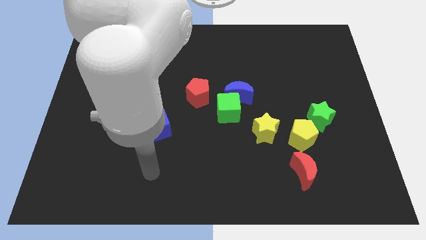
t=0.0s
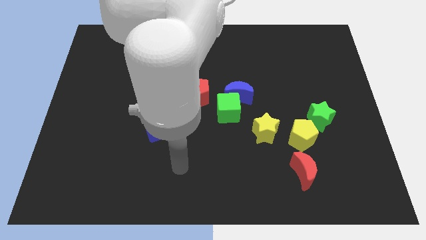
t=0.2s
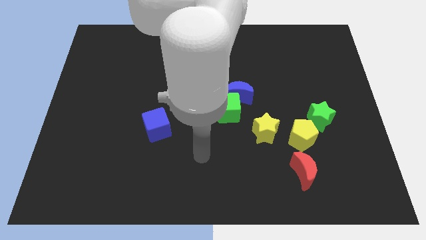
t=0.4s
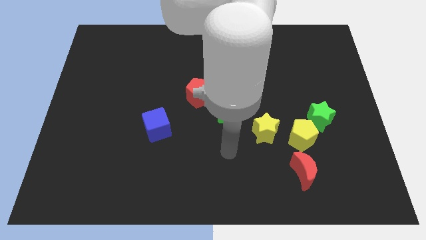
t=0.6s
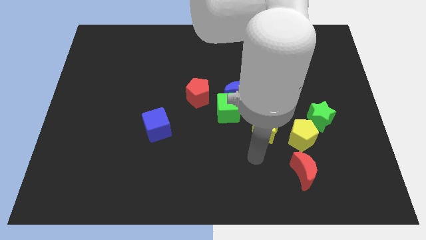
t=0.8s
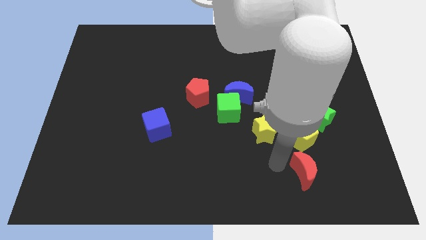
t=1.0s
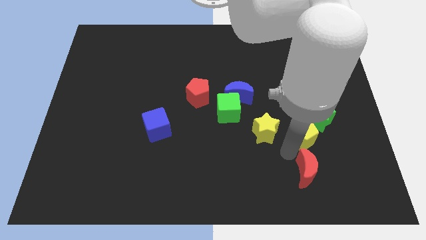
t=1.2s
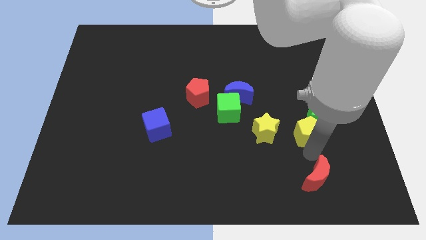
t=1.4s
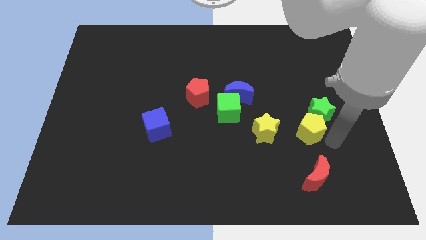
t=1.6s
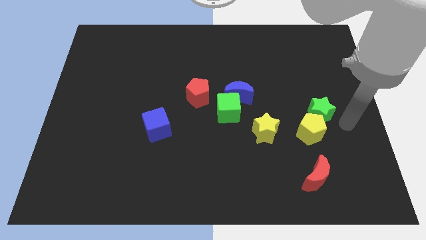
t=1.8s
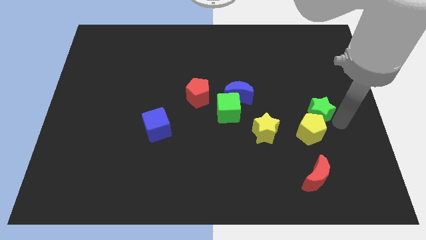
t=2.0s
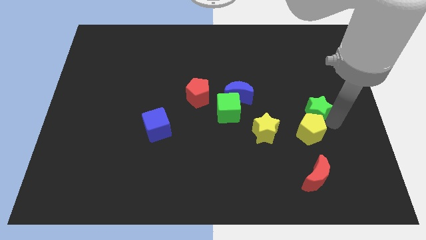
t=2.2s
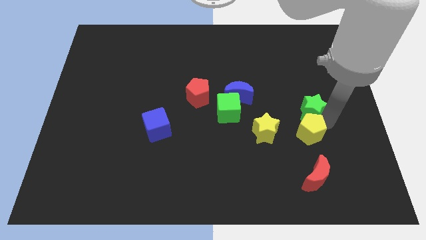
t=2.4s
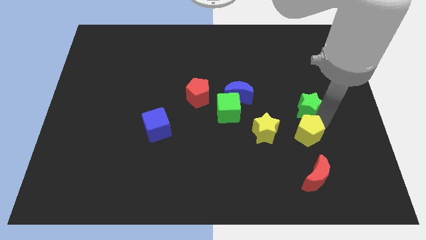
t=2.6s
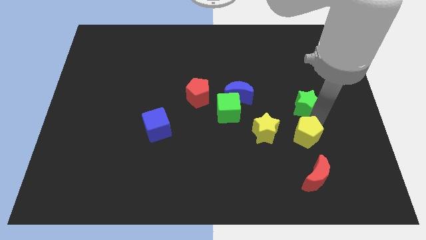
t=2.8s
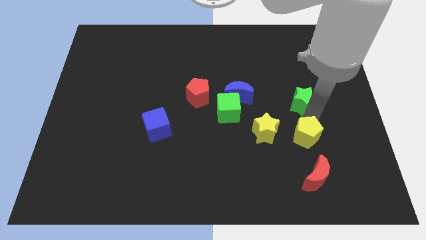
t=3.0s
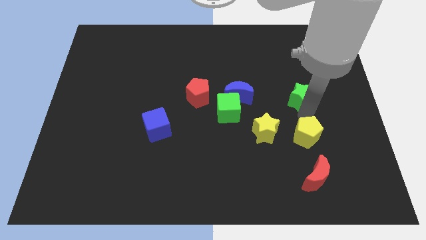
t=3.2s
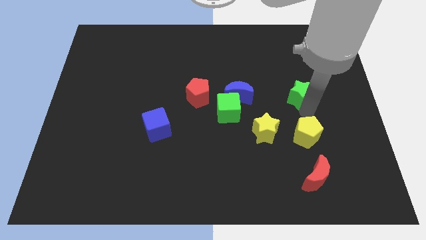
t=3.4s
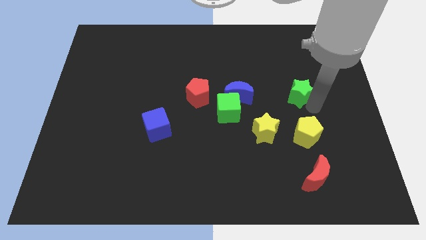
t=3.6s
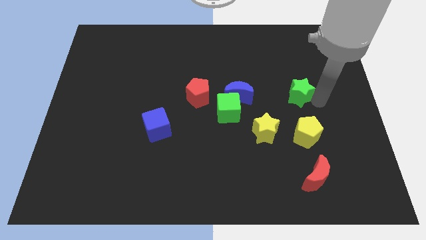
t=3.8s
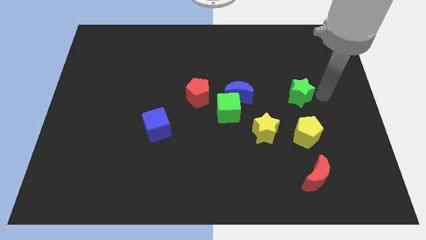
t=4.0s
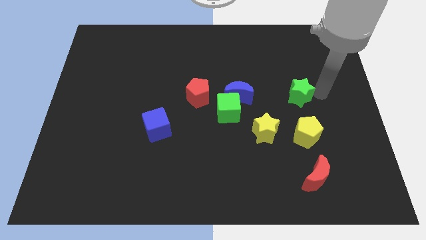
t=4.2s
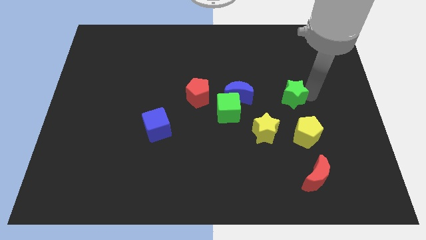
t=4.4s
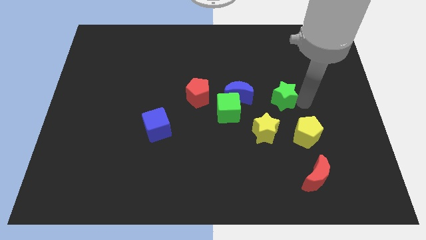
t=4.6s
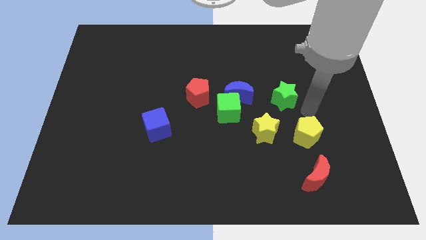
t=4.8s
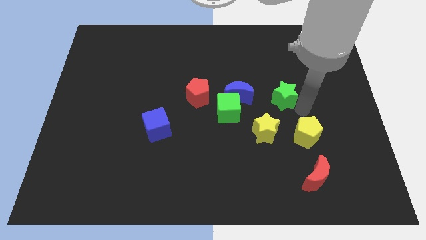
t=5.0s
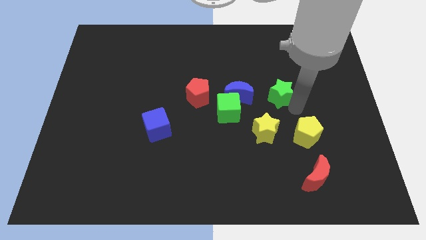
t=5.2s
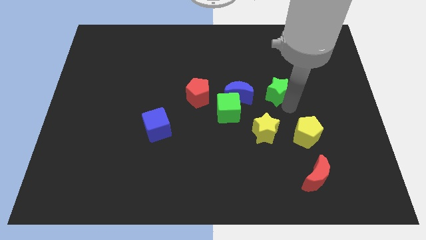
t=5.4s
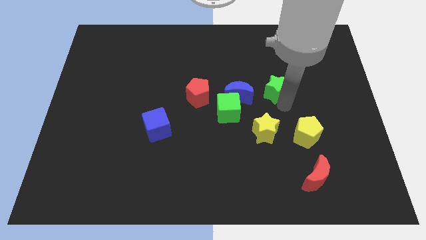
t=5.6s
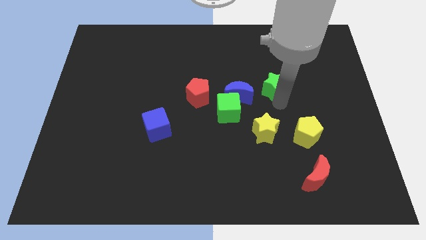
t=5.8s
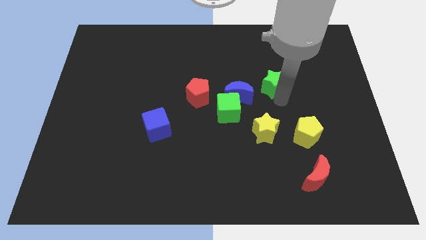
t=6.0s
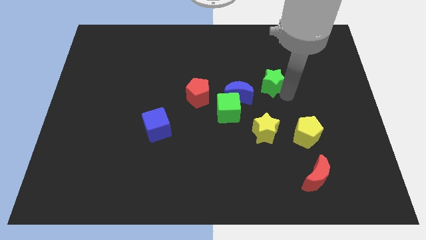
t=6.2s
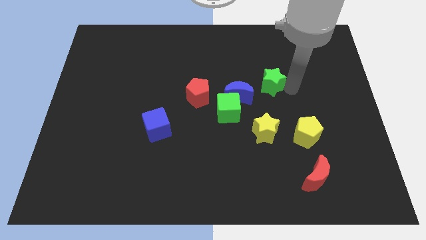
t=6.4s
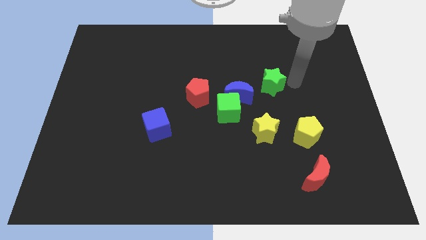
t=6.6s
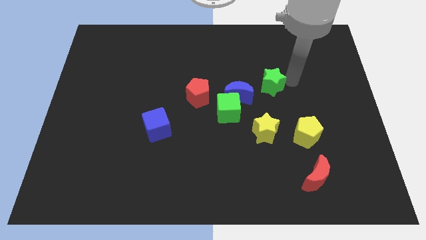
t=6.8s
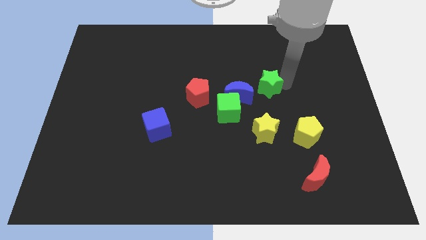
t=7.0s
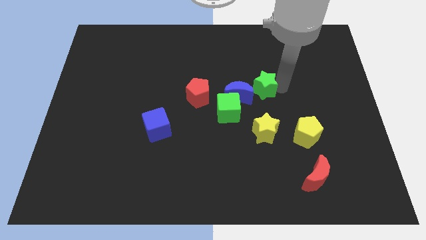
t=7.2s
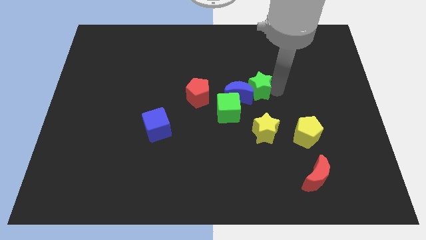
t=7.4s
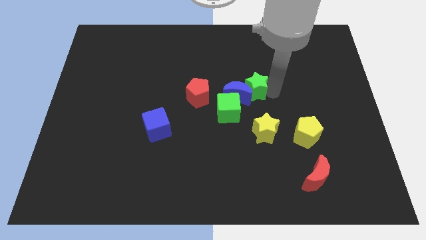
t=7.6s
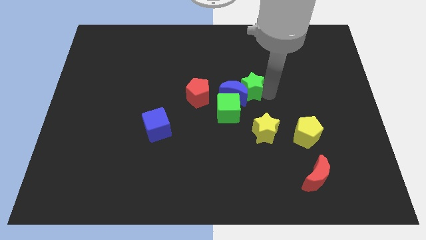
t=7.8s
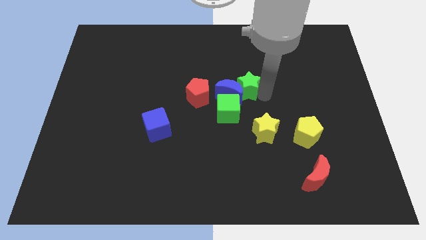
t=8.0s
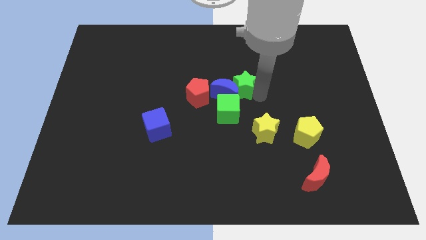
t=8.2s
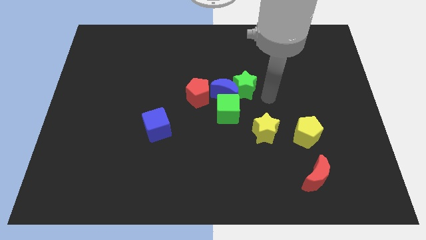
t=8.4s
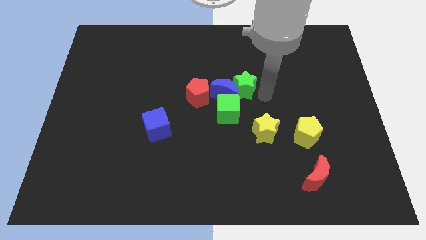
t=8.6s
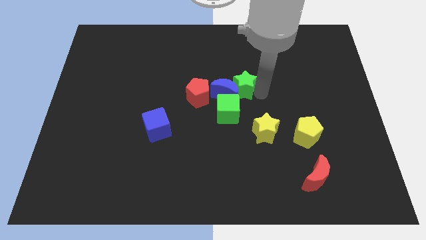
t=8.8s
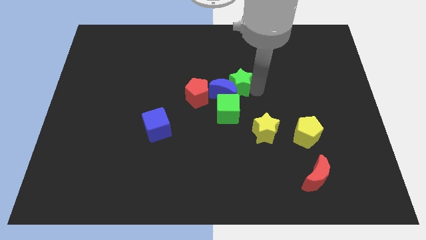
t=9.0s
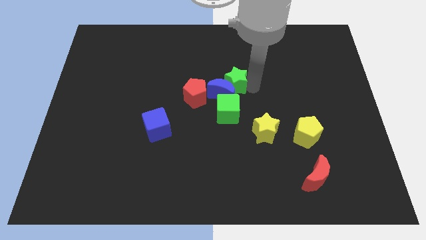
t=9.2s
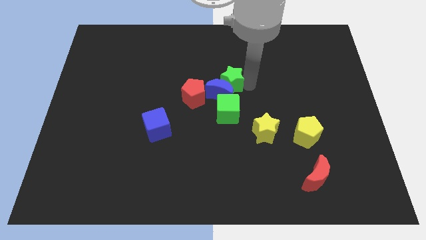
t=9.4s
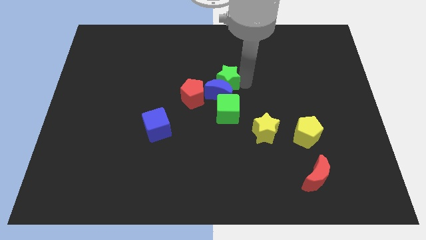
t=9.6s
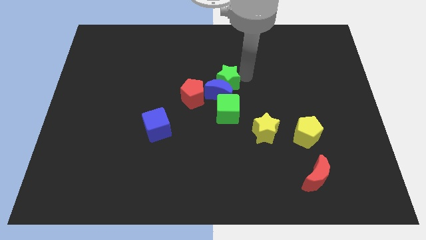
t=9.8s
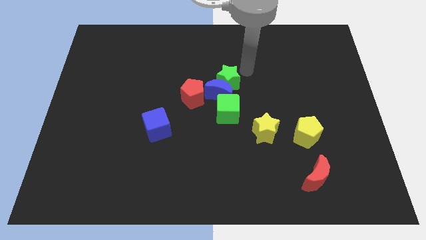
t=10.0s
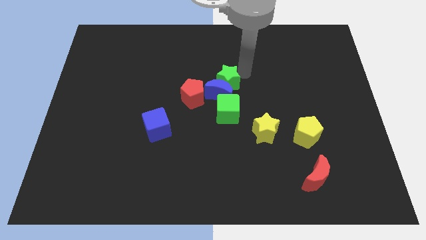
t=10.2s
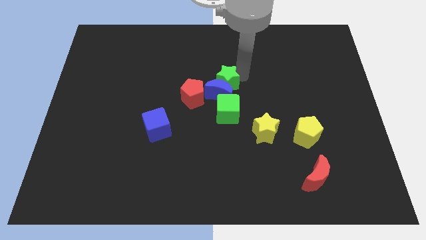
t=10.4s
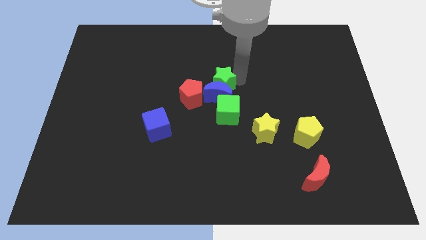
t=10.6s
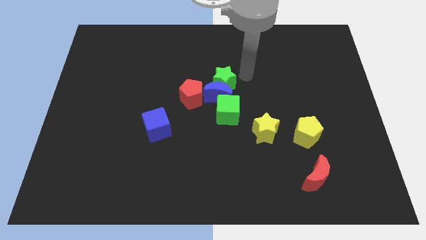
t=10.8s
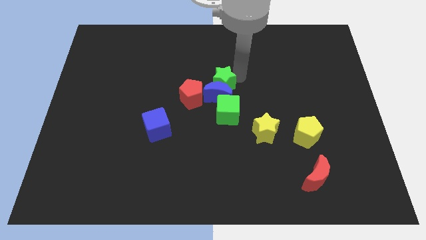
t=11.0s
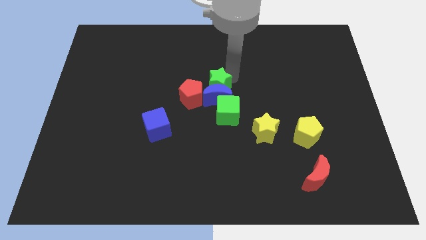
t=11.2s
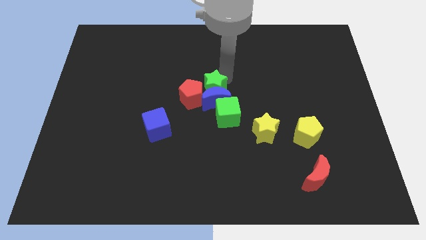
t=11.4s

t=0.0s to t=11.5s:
slide the green star to the red pentagon

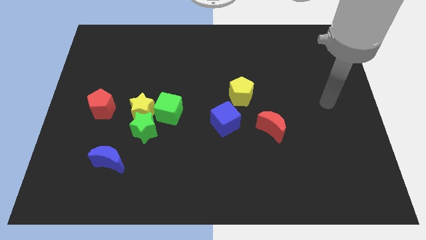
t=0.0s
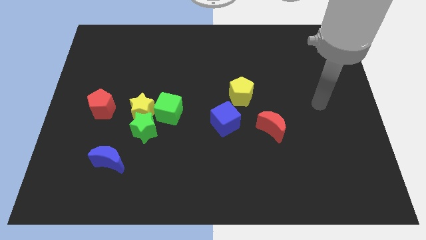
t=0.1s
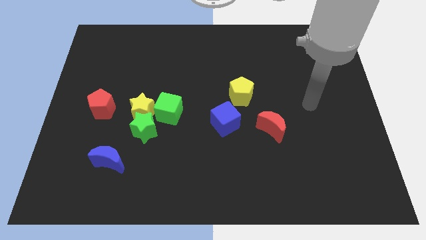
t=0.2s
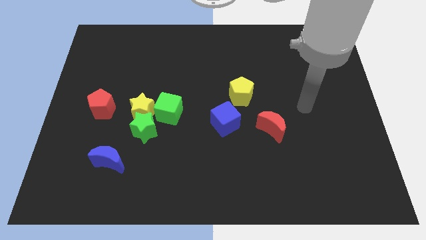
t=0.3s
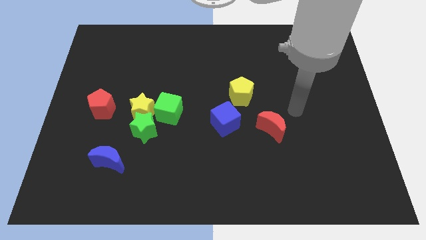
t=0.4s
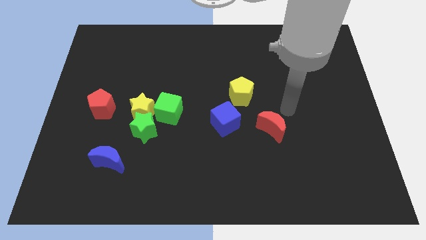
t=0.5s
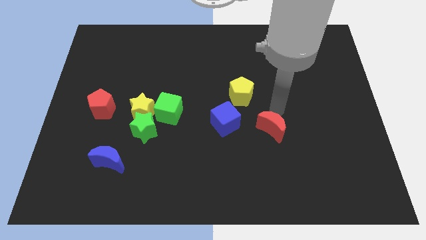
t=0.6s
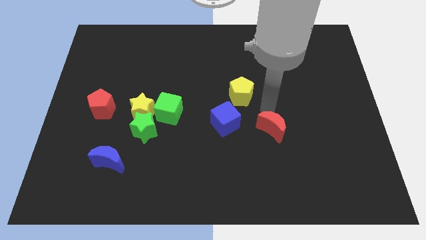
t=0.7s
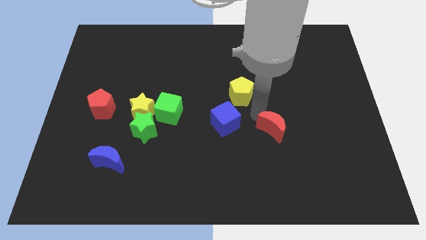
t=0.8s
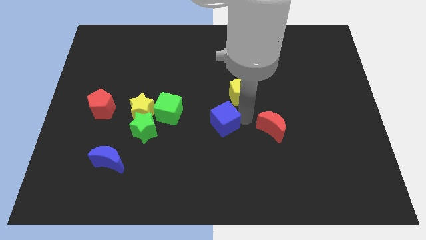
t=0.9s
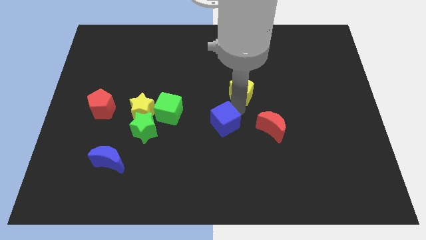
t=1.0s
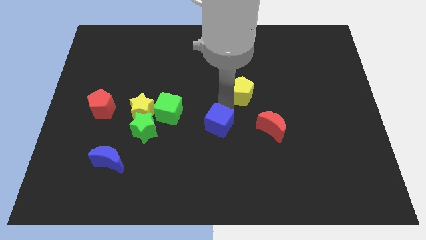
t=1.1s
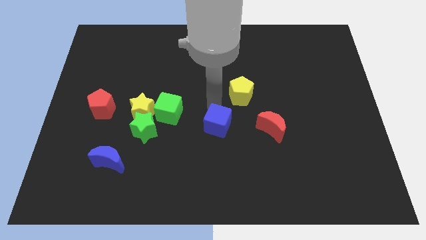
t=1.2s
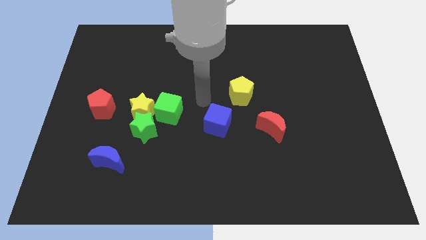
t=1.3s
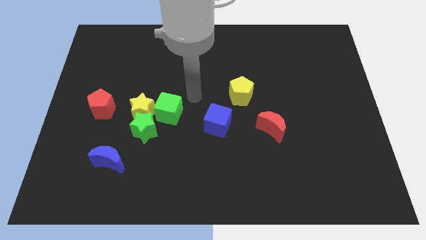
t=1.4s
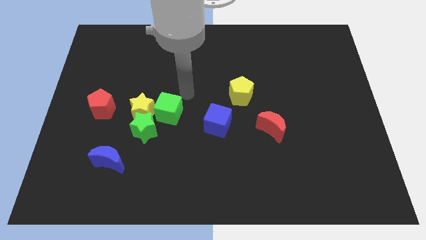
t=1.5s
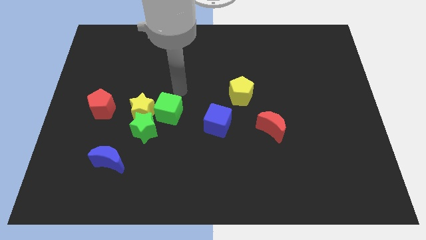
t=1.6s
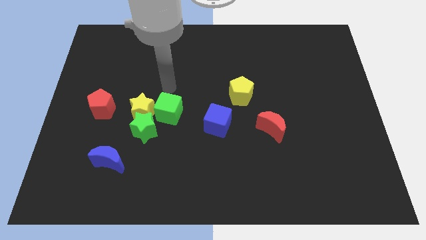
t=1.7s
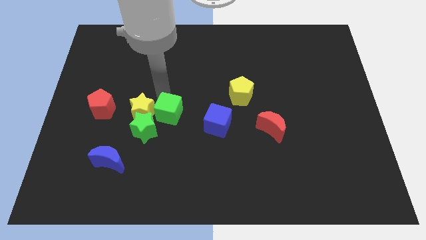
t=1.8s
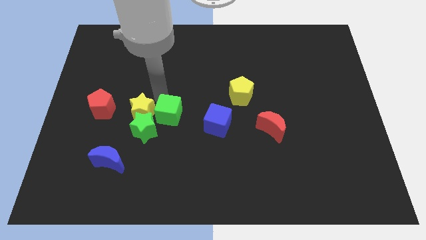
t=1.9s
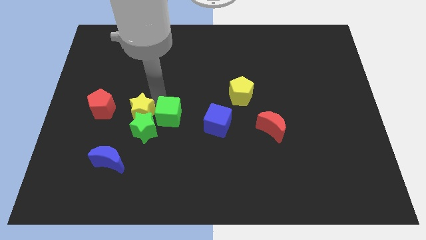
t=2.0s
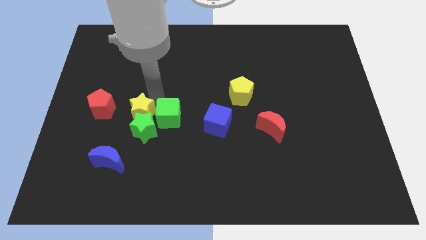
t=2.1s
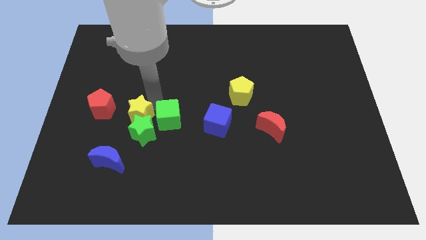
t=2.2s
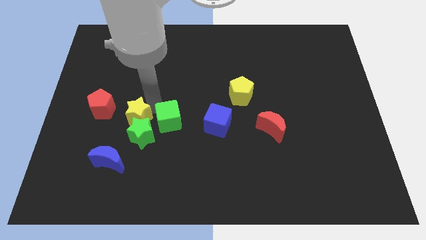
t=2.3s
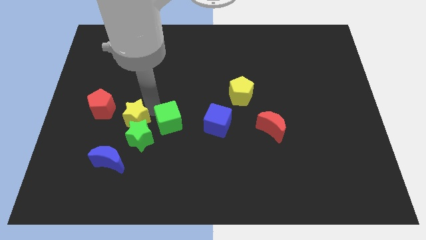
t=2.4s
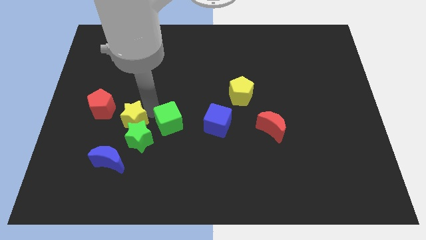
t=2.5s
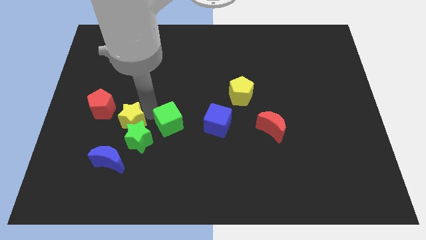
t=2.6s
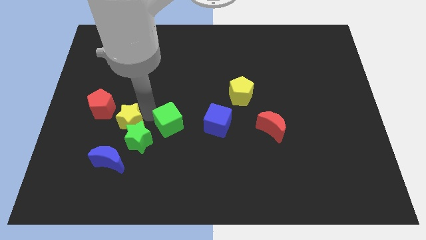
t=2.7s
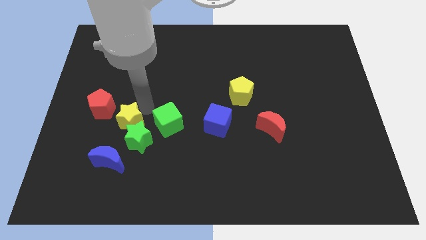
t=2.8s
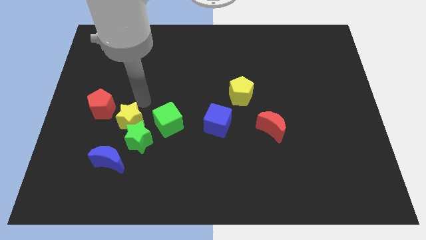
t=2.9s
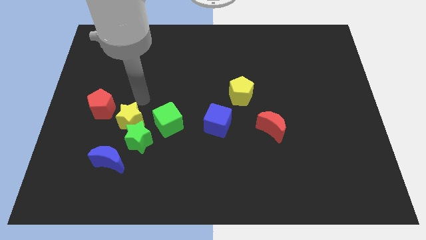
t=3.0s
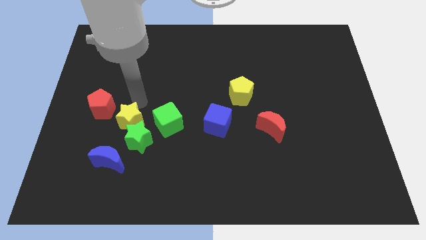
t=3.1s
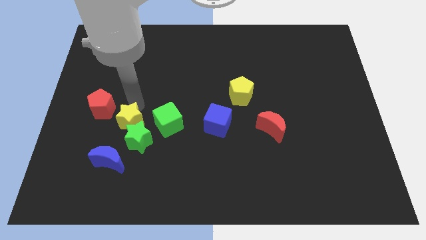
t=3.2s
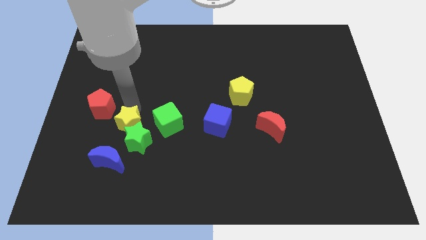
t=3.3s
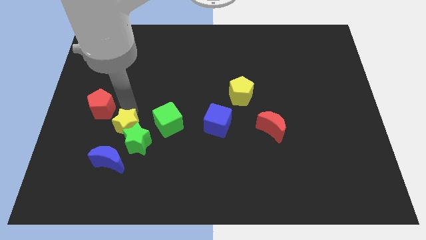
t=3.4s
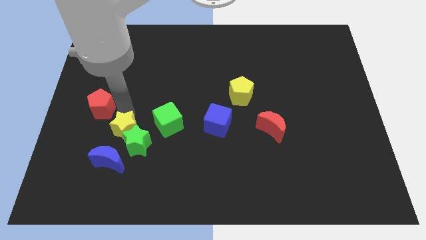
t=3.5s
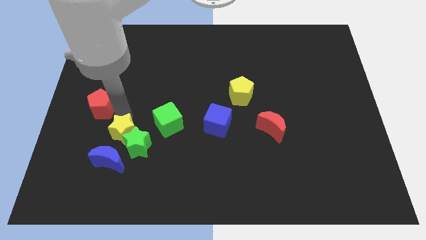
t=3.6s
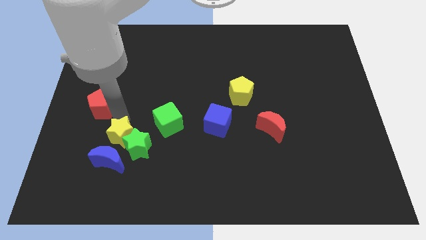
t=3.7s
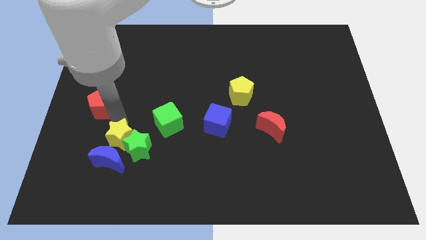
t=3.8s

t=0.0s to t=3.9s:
slide the yellow star close to the blue moon
